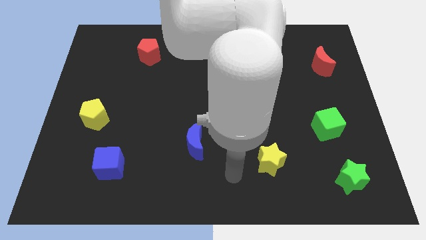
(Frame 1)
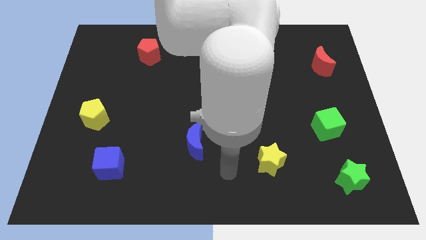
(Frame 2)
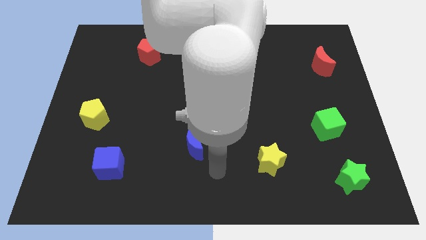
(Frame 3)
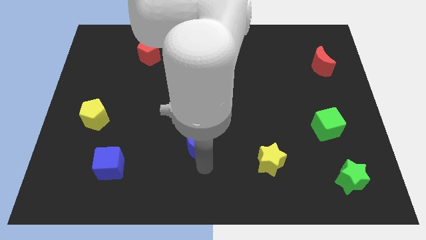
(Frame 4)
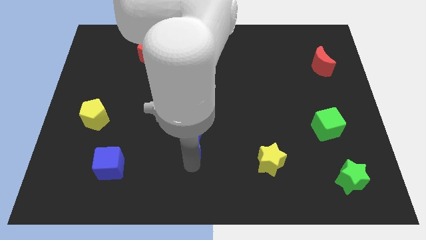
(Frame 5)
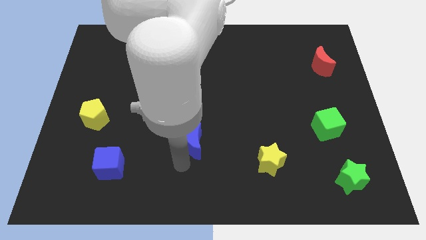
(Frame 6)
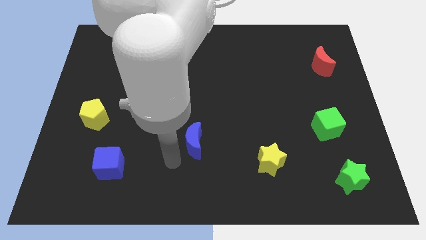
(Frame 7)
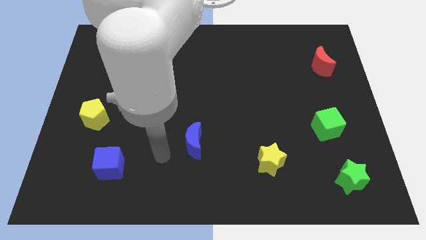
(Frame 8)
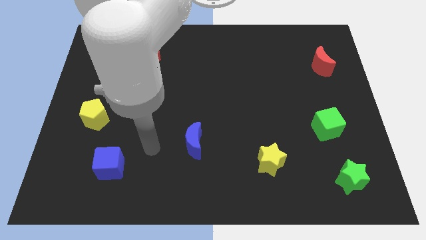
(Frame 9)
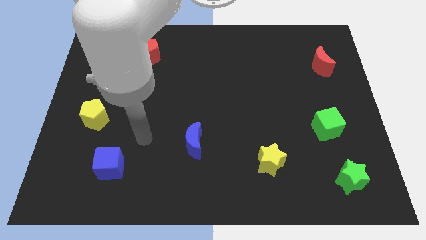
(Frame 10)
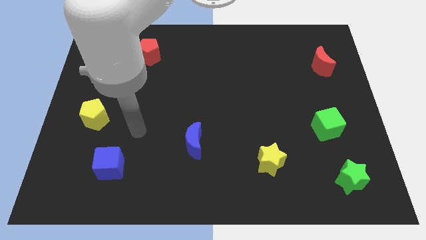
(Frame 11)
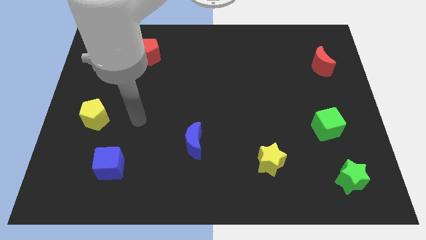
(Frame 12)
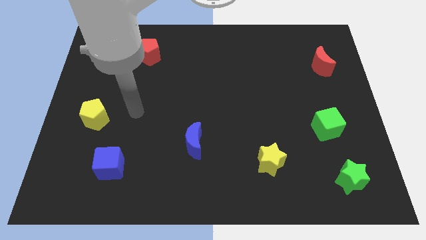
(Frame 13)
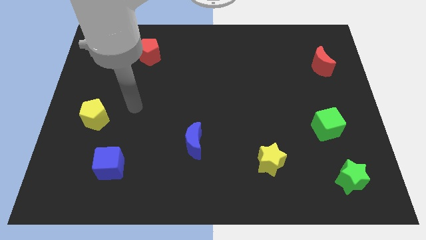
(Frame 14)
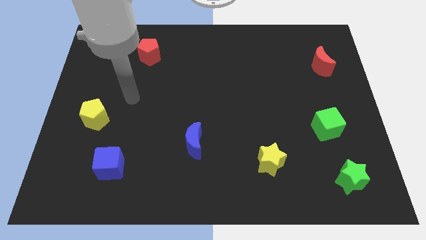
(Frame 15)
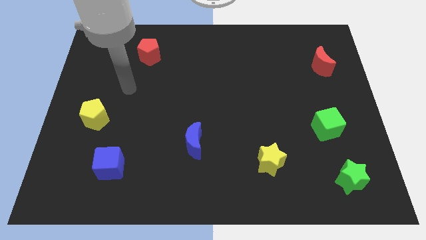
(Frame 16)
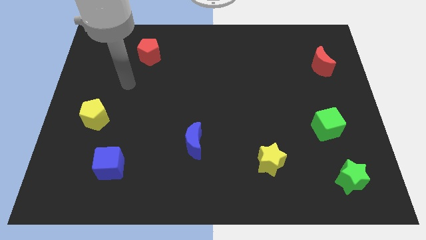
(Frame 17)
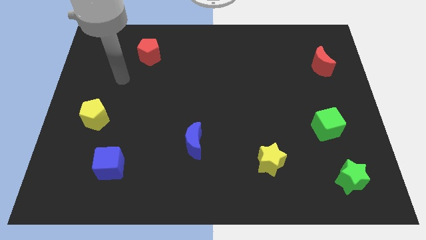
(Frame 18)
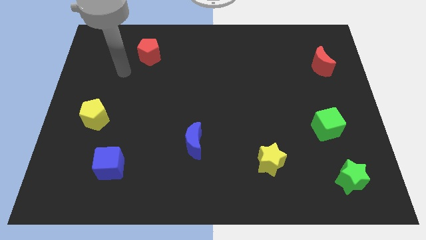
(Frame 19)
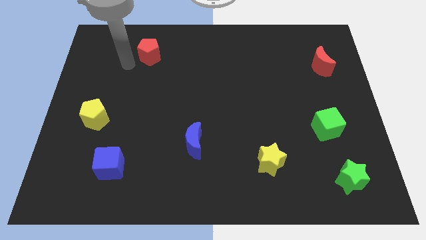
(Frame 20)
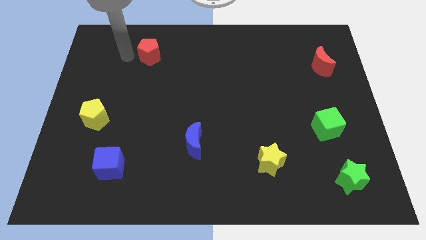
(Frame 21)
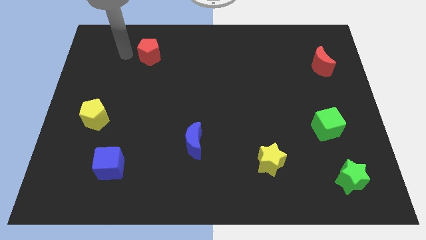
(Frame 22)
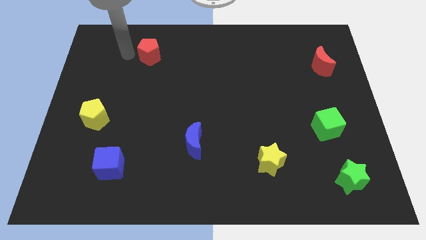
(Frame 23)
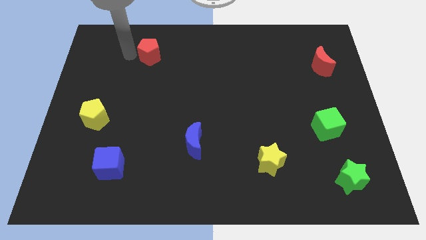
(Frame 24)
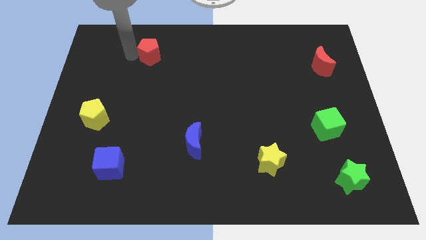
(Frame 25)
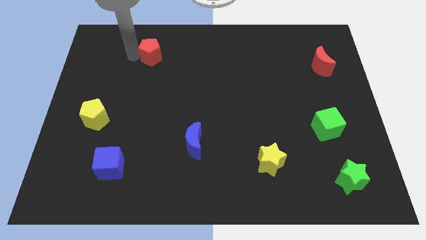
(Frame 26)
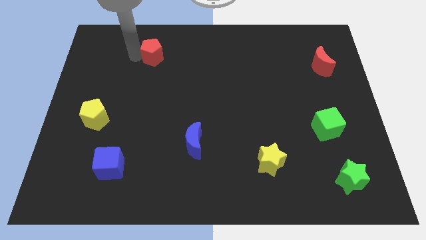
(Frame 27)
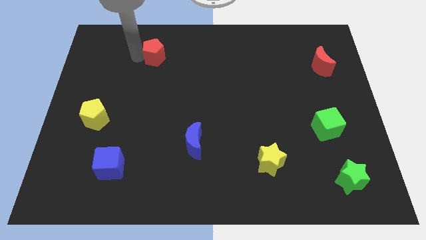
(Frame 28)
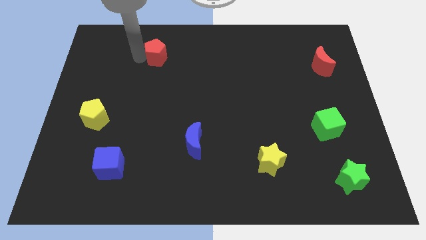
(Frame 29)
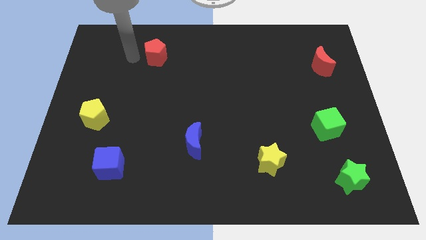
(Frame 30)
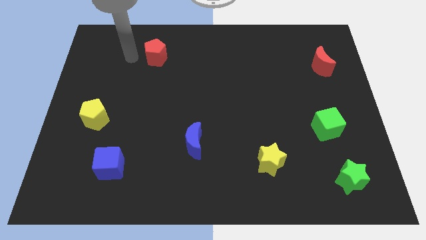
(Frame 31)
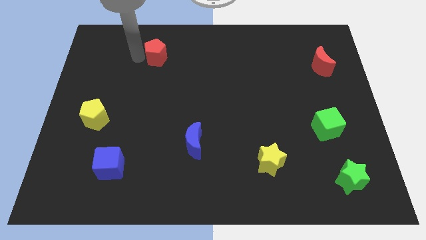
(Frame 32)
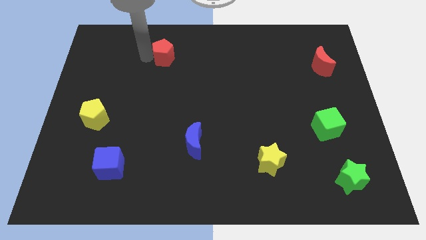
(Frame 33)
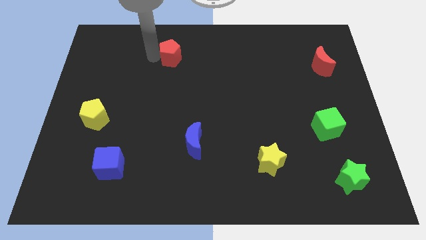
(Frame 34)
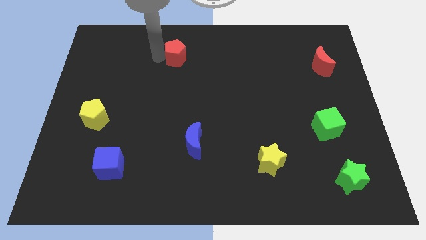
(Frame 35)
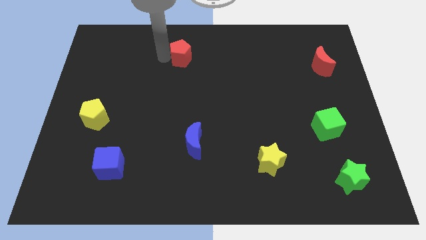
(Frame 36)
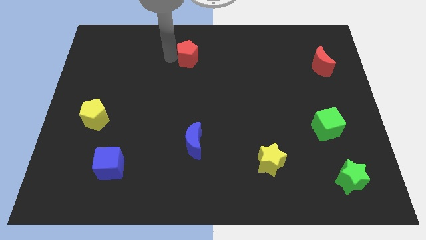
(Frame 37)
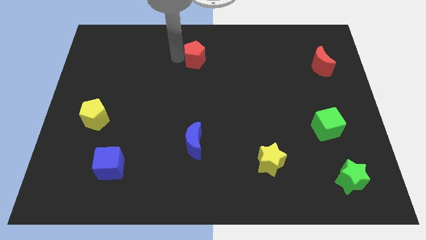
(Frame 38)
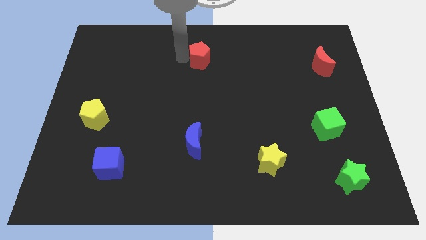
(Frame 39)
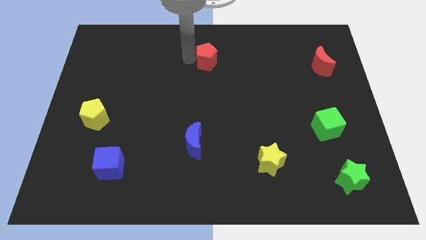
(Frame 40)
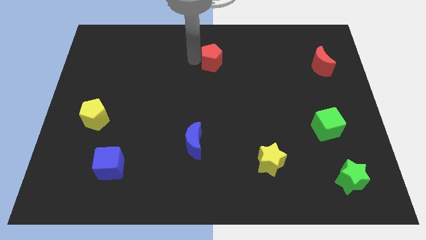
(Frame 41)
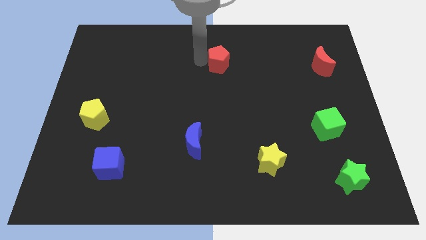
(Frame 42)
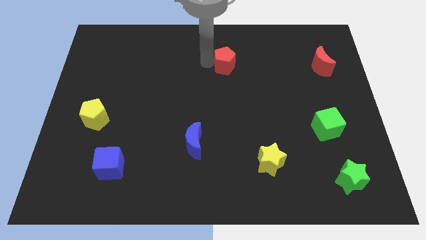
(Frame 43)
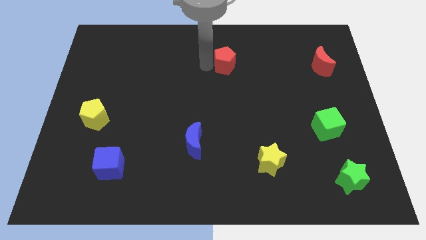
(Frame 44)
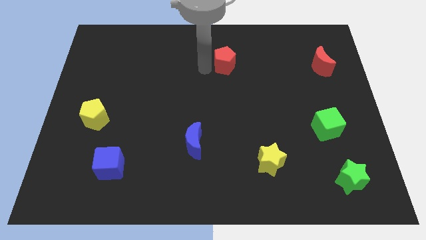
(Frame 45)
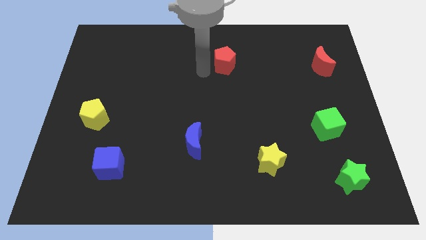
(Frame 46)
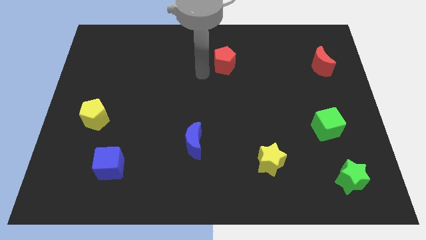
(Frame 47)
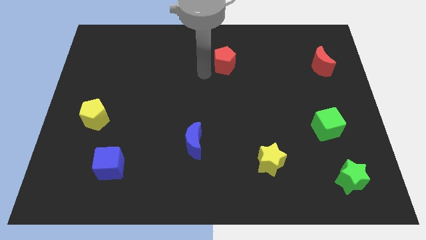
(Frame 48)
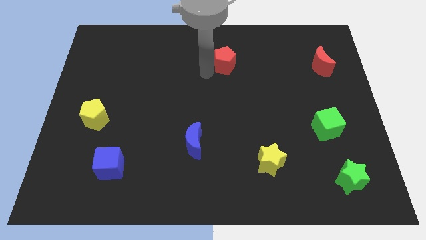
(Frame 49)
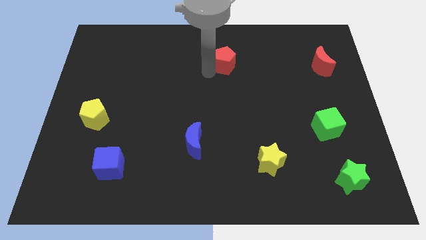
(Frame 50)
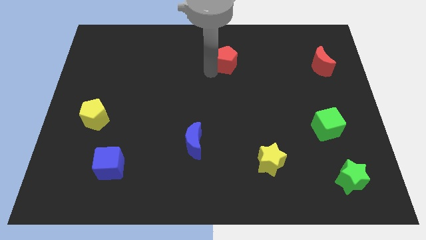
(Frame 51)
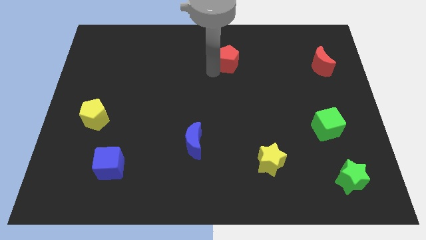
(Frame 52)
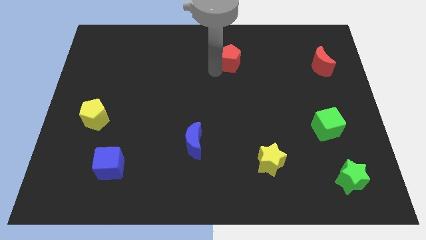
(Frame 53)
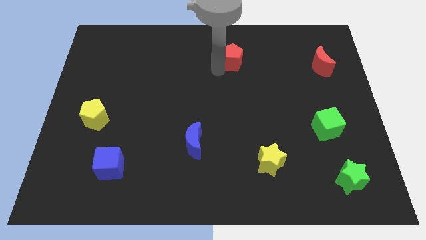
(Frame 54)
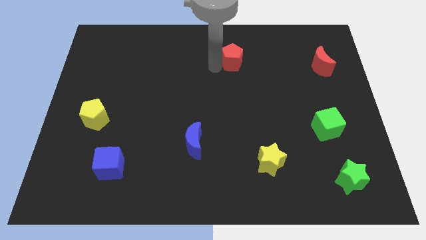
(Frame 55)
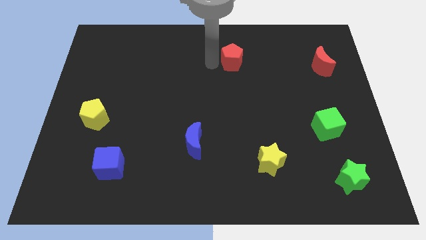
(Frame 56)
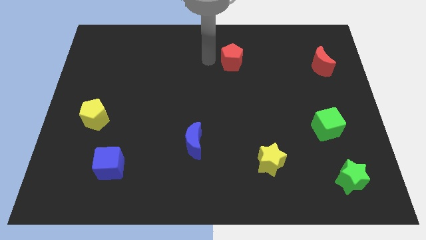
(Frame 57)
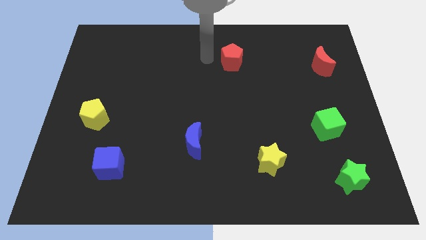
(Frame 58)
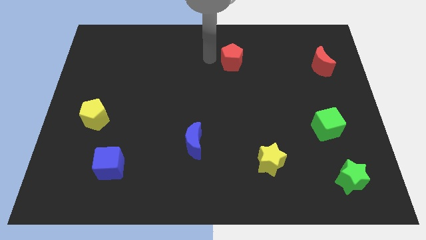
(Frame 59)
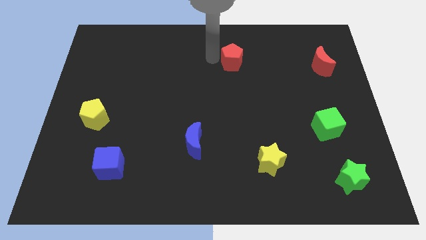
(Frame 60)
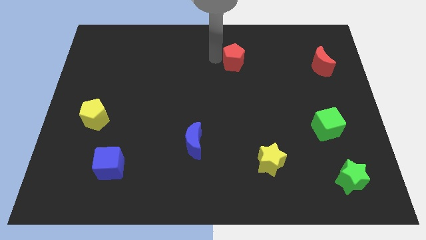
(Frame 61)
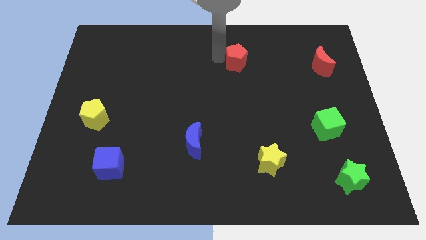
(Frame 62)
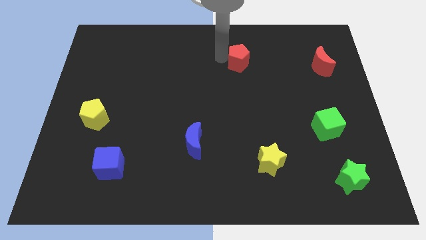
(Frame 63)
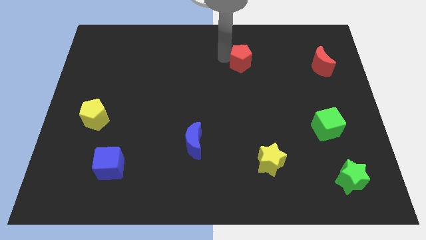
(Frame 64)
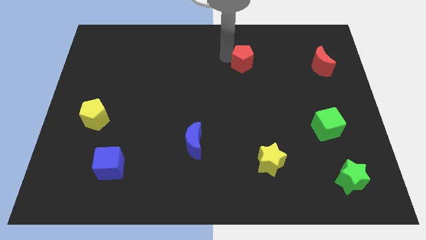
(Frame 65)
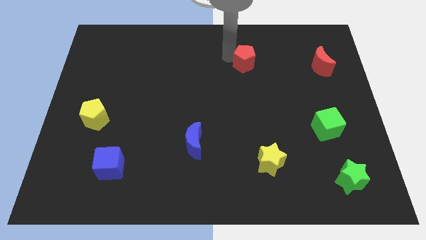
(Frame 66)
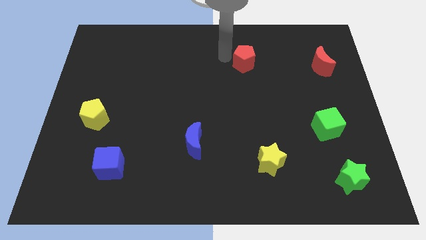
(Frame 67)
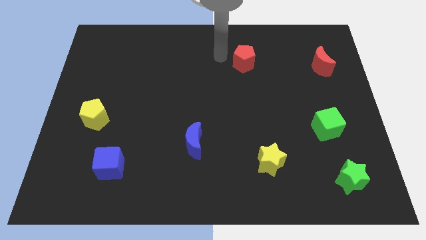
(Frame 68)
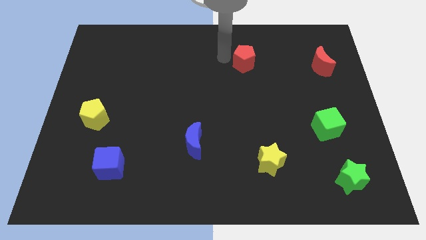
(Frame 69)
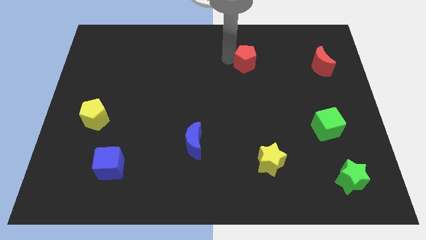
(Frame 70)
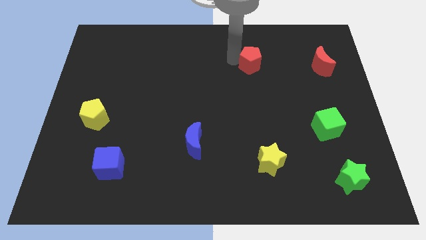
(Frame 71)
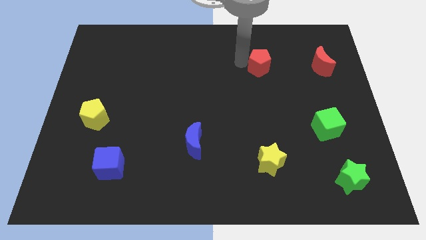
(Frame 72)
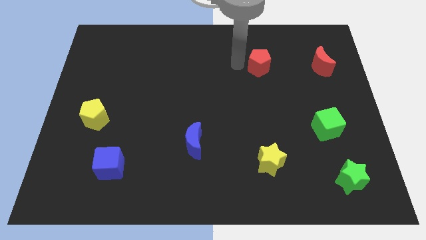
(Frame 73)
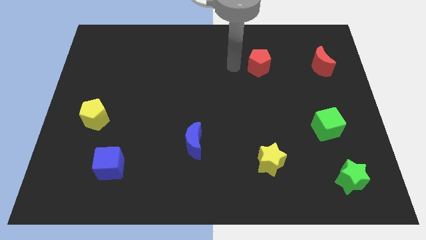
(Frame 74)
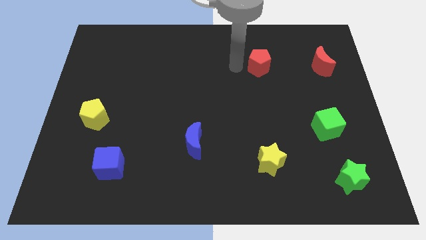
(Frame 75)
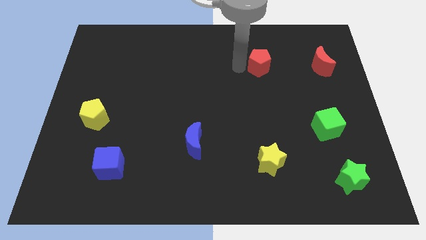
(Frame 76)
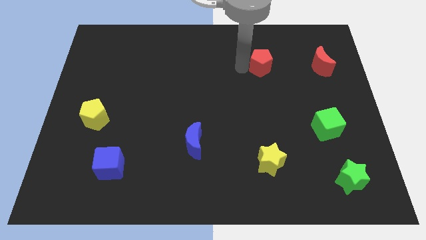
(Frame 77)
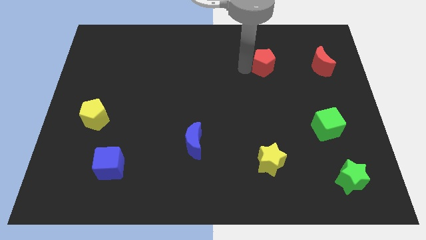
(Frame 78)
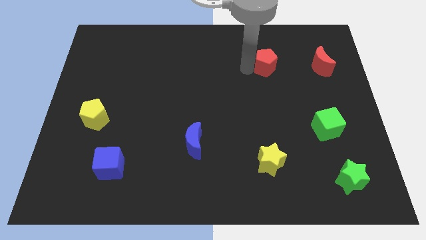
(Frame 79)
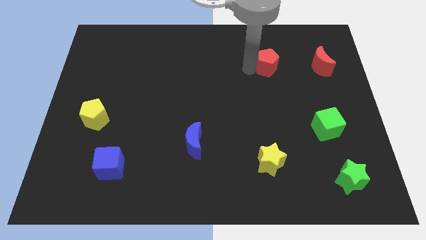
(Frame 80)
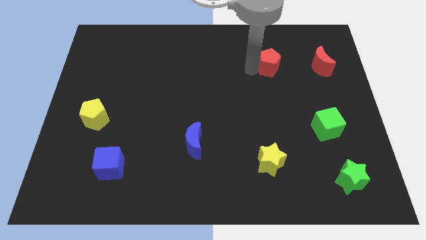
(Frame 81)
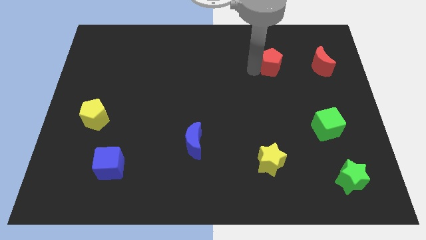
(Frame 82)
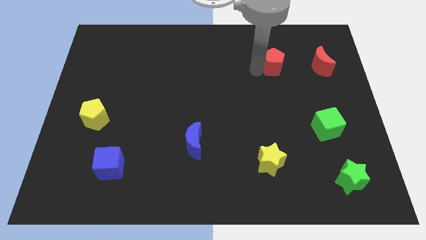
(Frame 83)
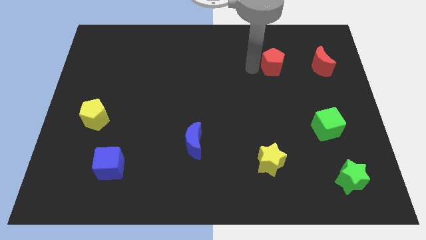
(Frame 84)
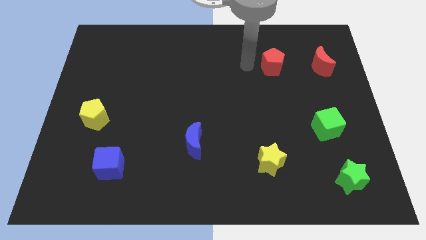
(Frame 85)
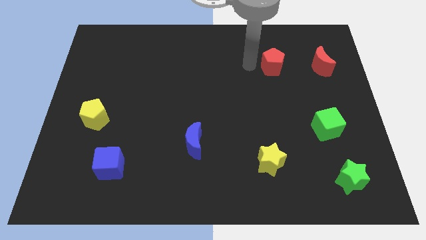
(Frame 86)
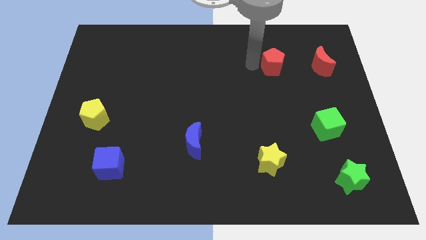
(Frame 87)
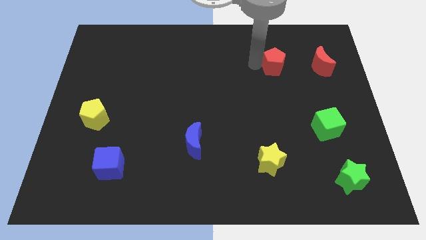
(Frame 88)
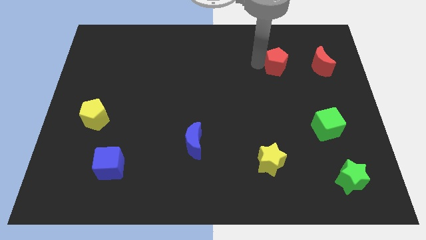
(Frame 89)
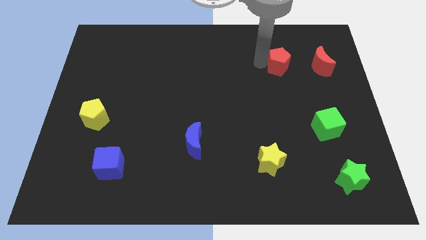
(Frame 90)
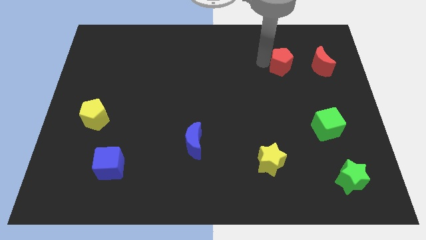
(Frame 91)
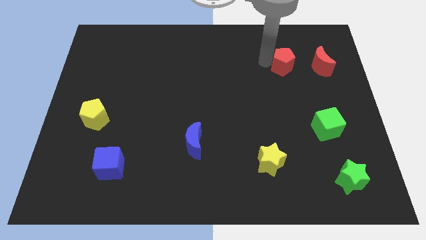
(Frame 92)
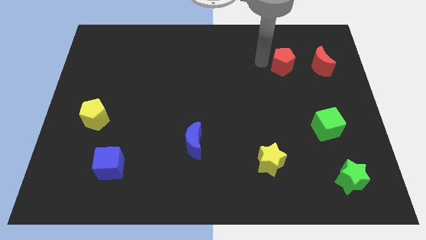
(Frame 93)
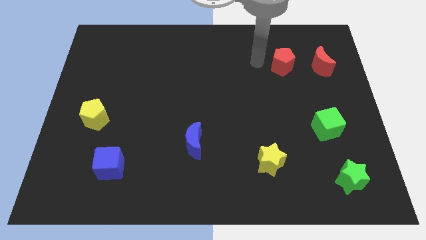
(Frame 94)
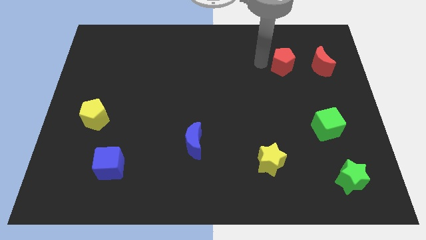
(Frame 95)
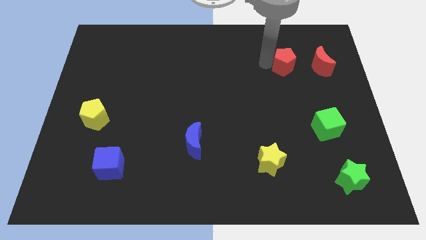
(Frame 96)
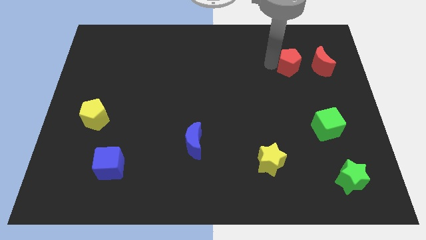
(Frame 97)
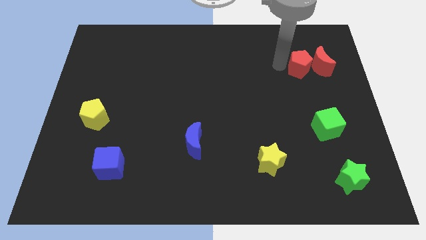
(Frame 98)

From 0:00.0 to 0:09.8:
put the red pentagon close to the red moon
